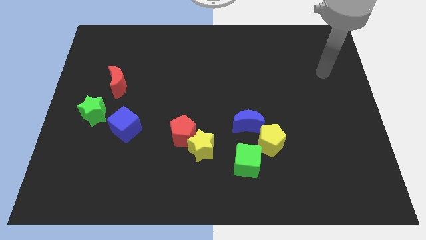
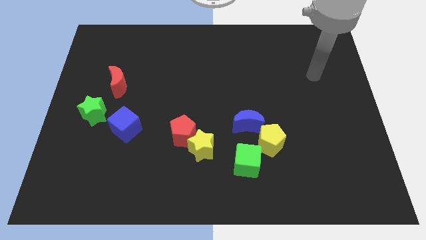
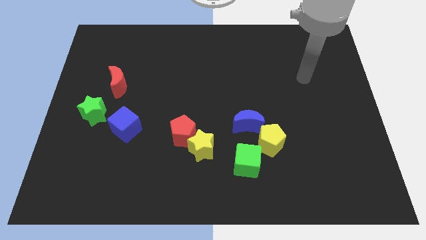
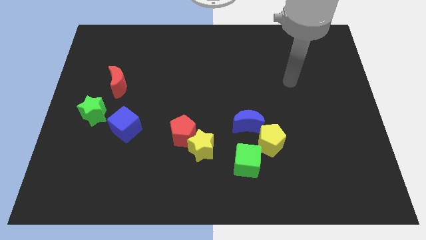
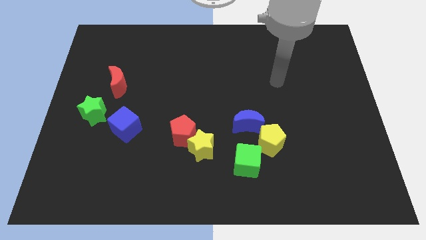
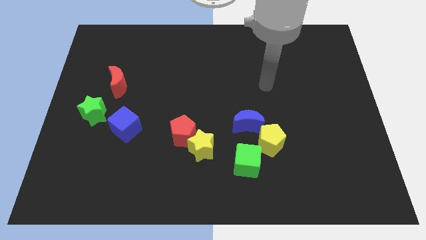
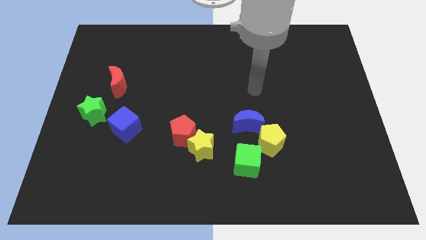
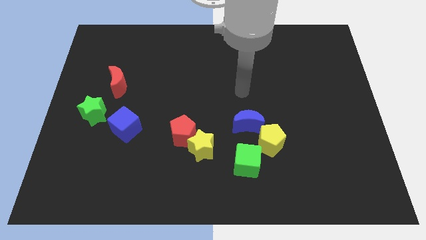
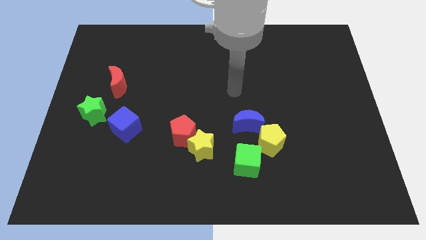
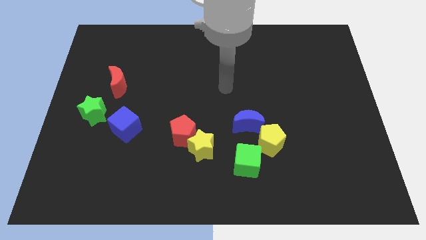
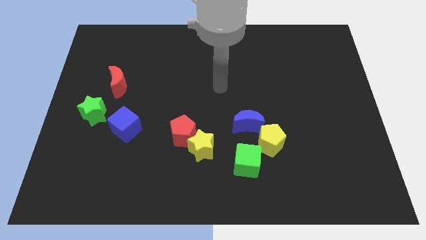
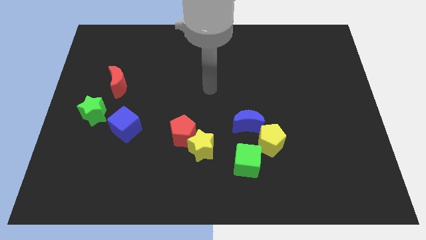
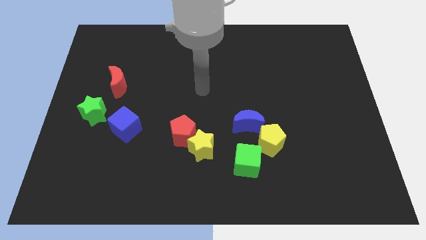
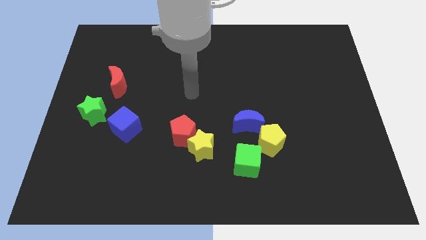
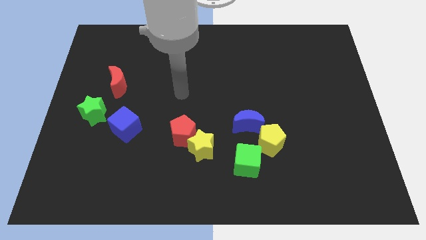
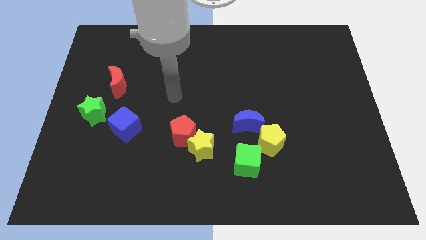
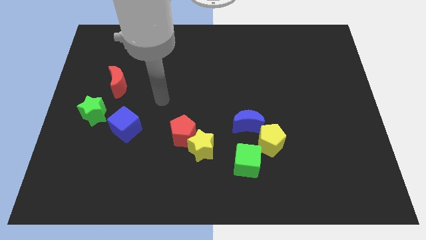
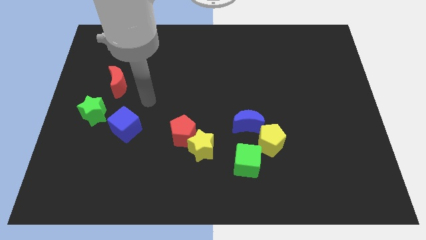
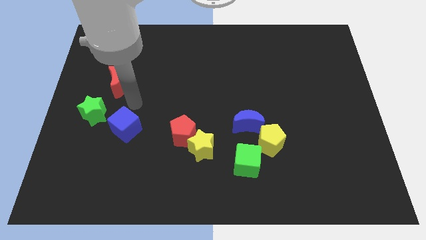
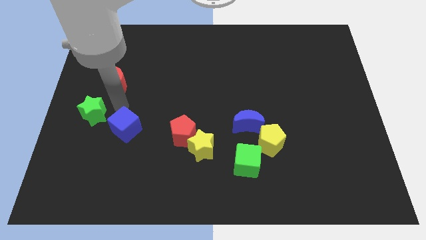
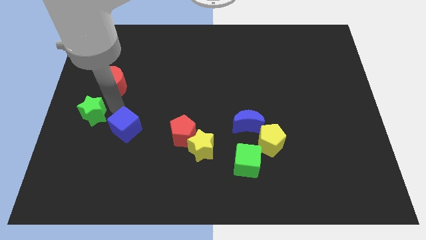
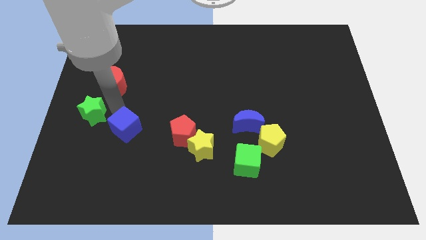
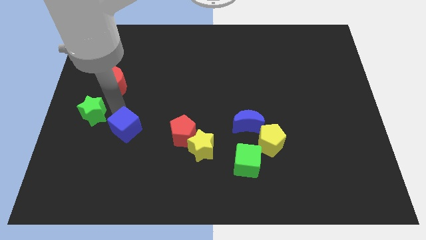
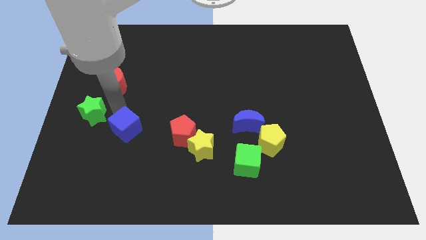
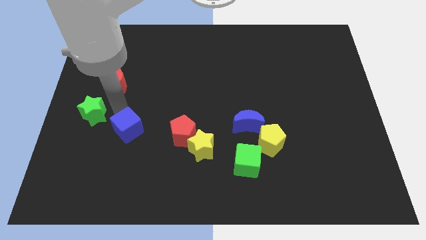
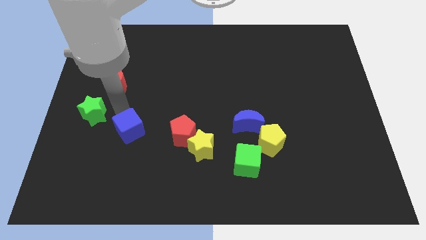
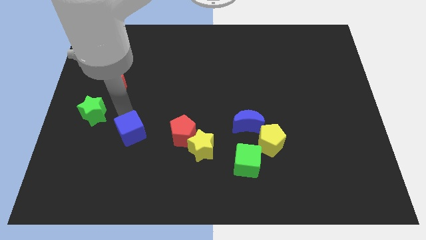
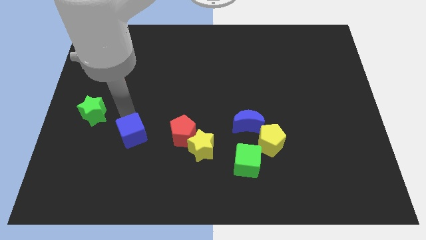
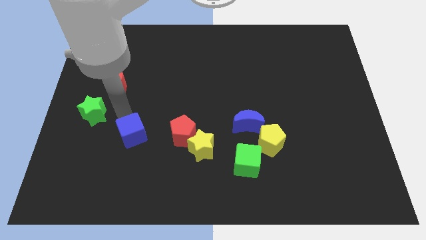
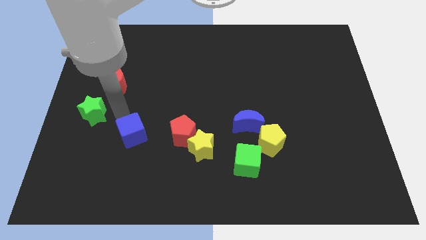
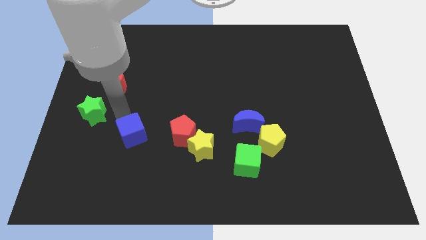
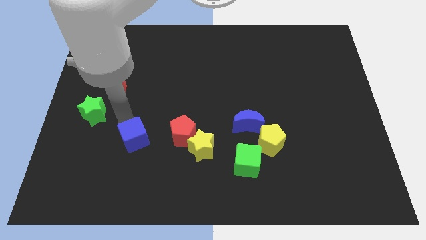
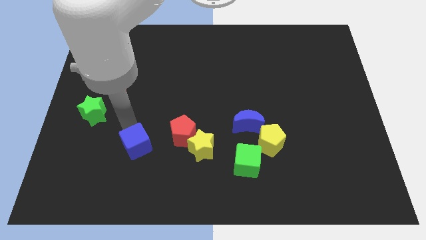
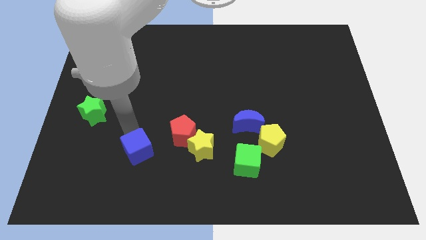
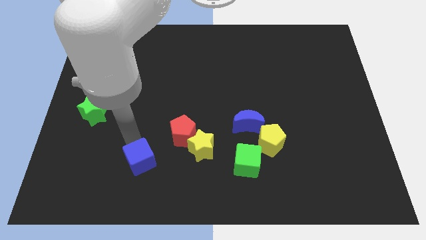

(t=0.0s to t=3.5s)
move the blue cube downwards and then right slightly

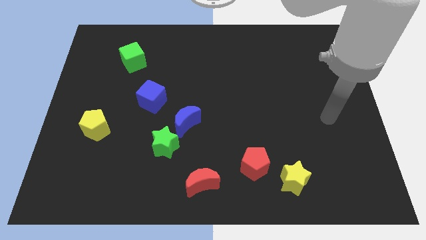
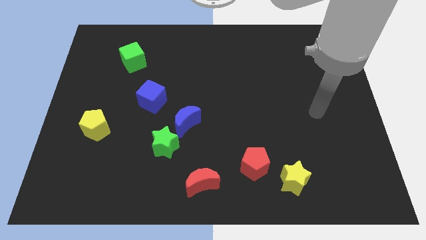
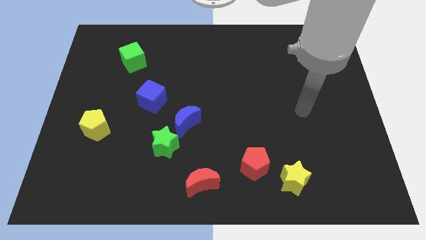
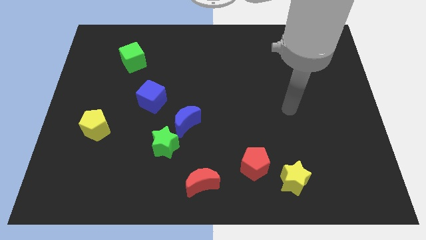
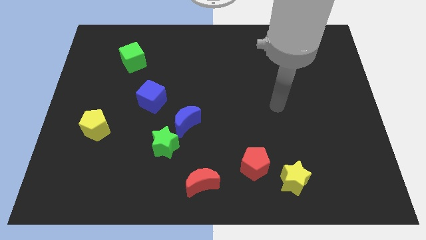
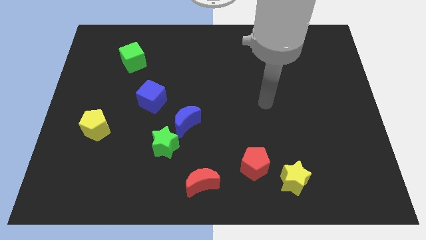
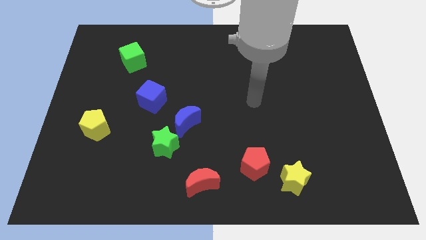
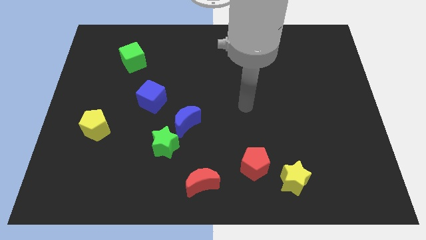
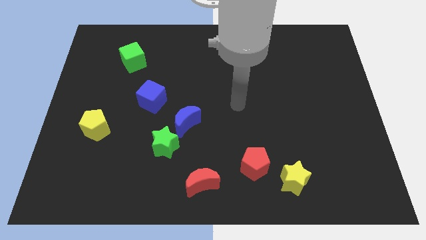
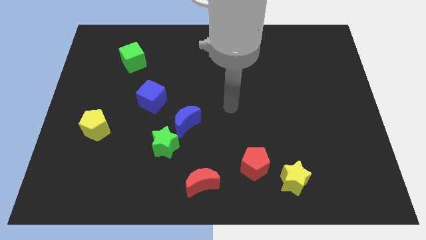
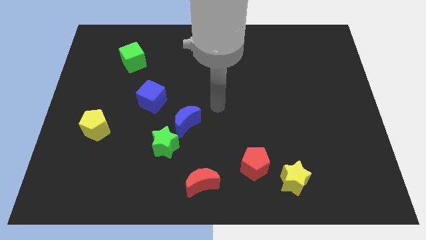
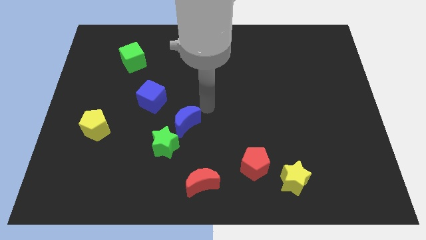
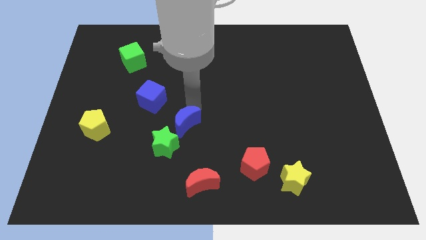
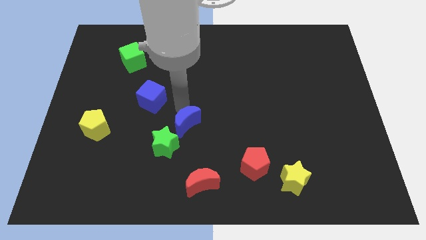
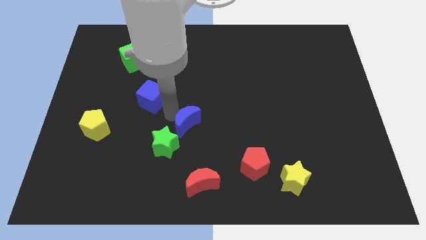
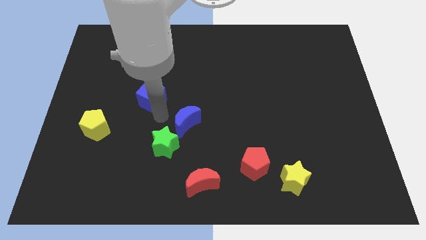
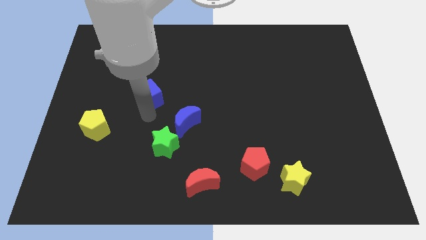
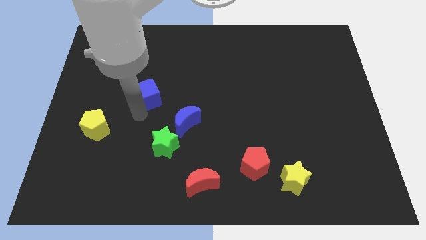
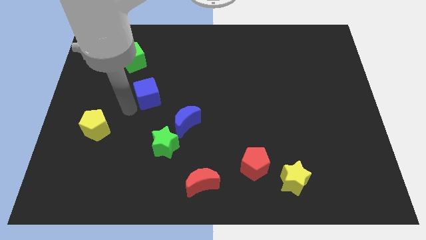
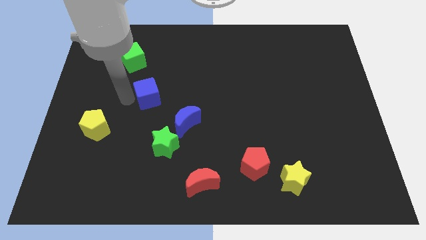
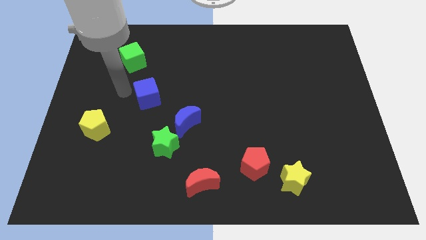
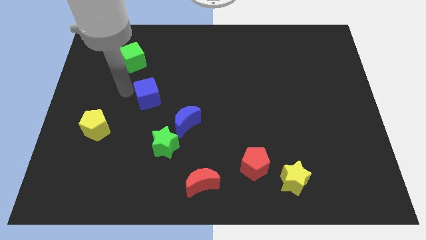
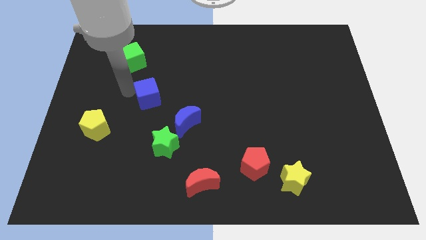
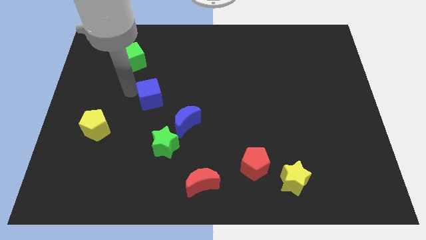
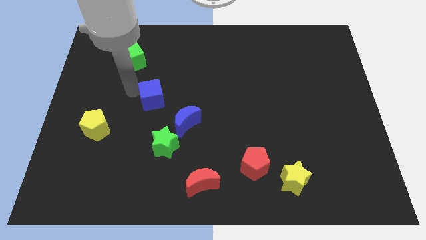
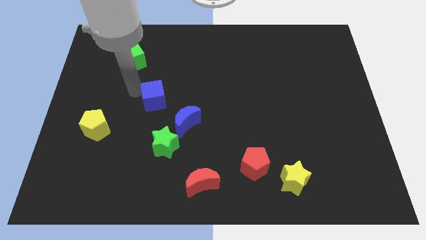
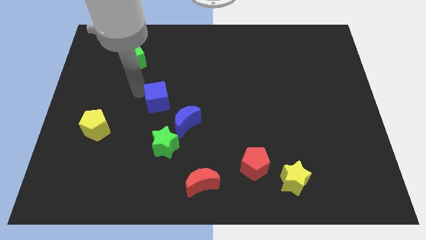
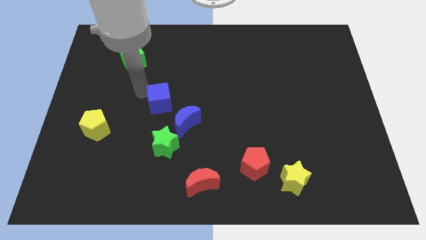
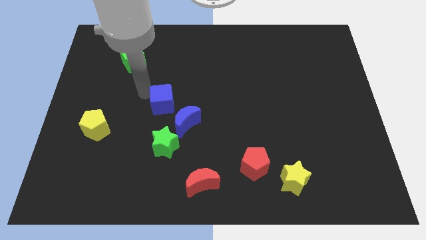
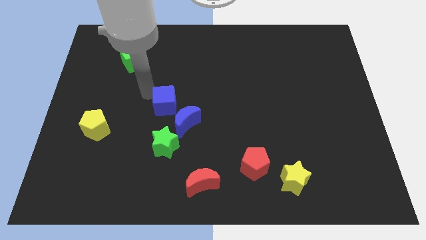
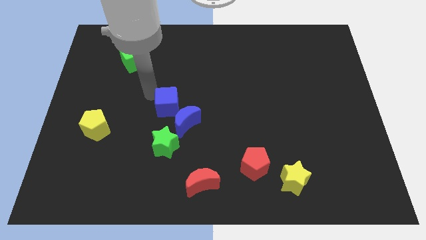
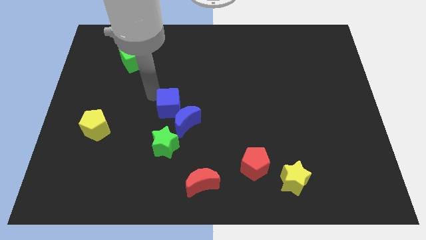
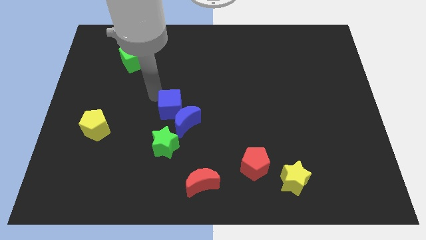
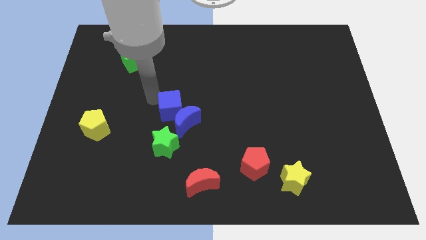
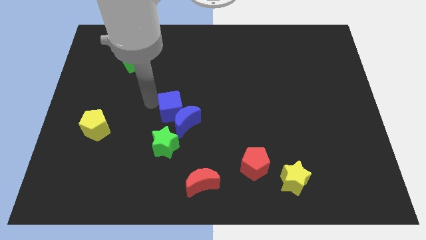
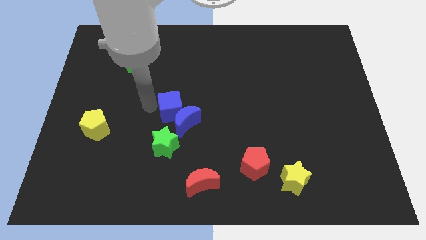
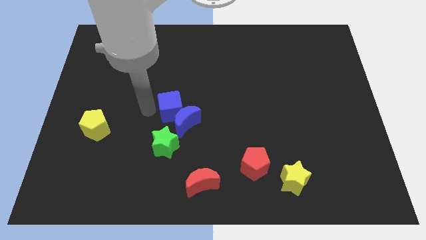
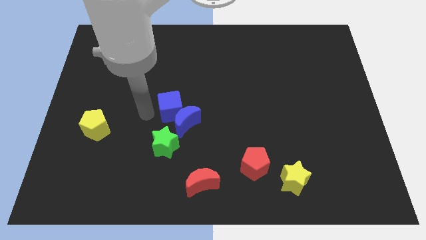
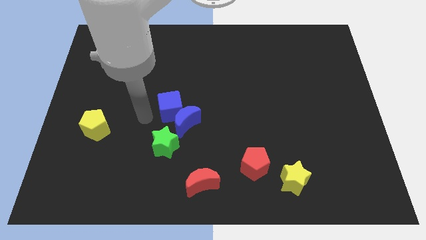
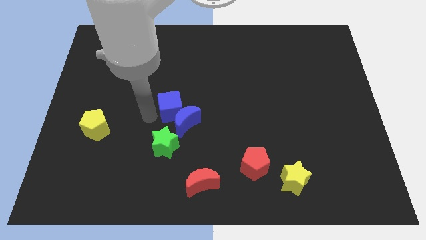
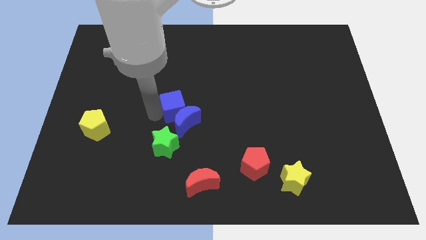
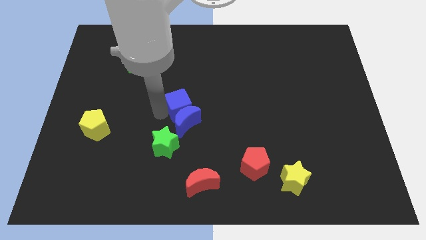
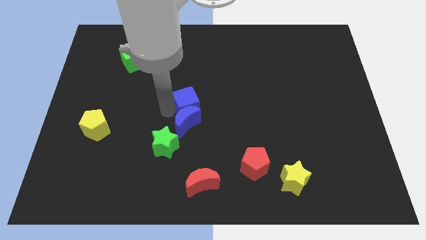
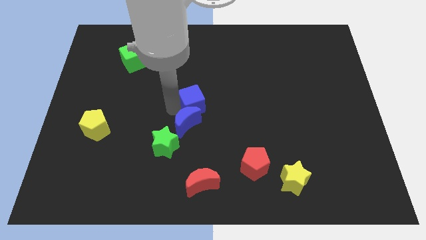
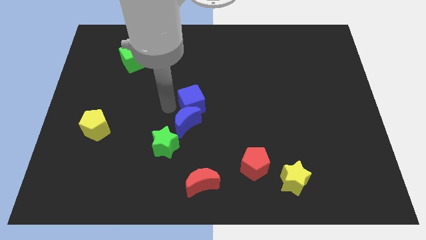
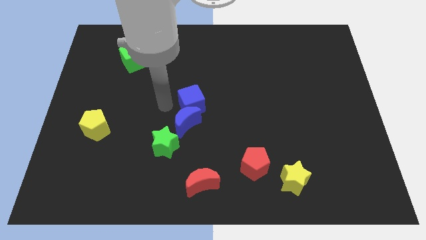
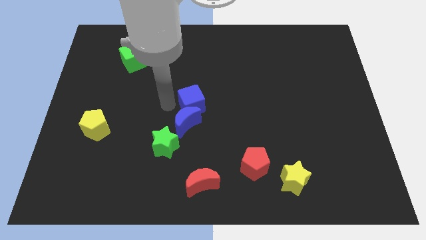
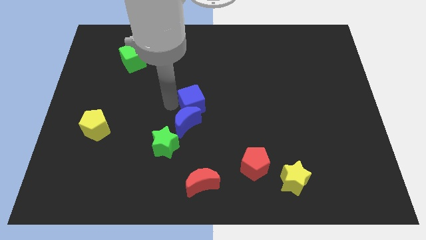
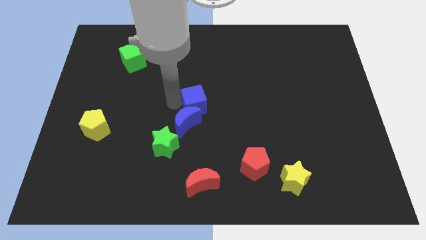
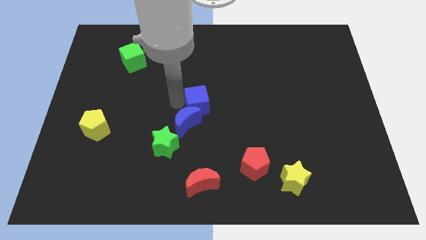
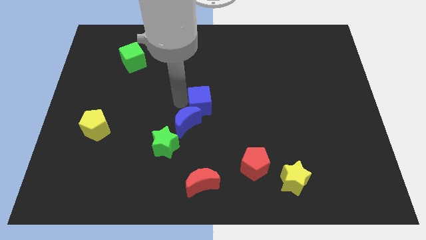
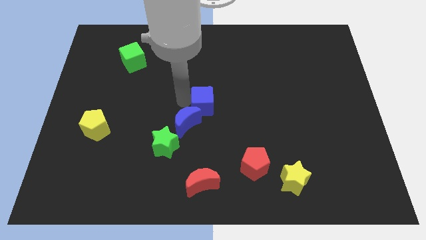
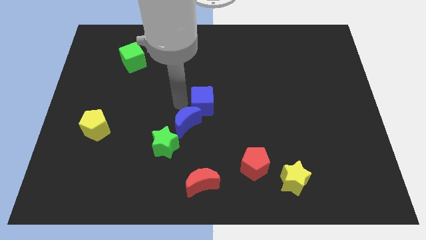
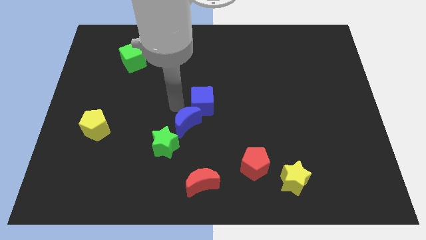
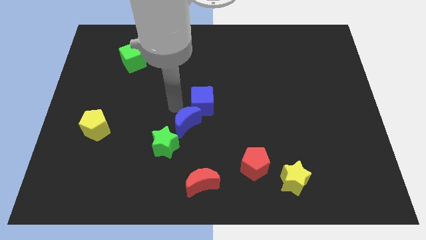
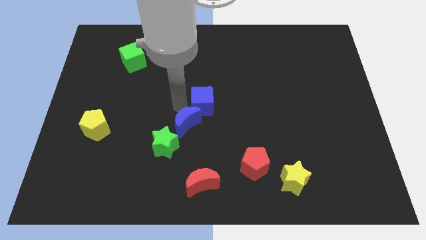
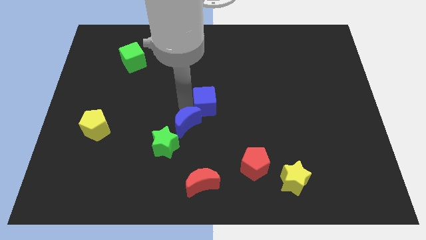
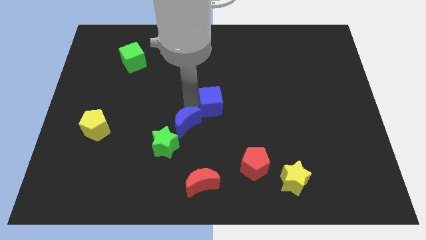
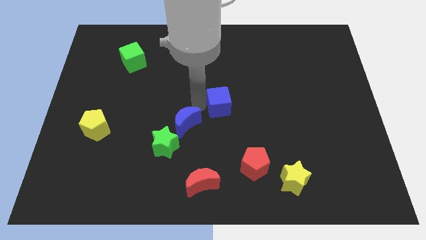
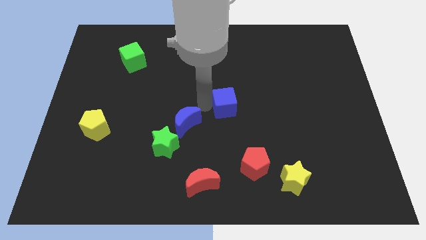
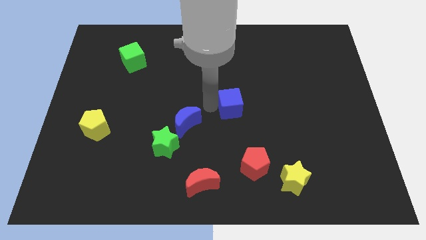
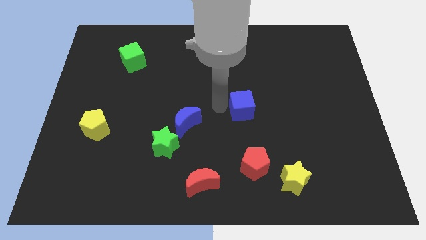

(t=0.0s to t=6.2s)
move the blue cube right
